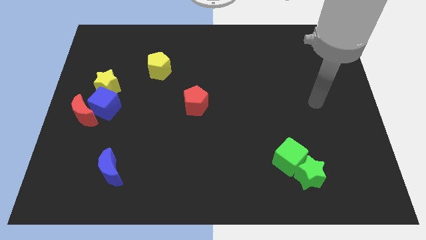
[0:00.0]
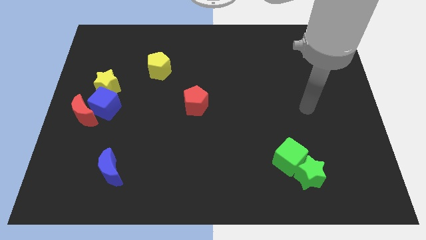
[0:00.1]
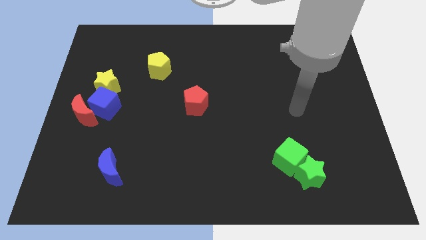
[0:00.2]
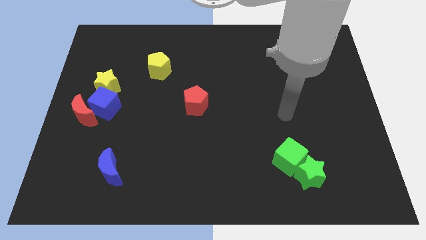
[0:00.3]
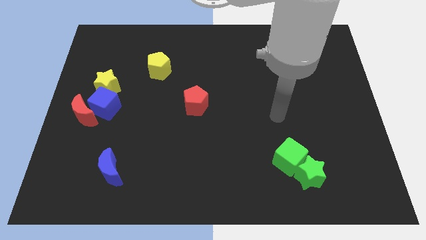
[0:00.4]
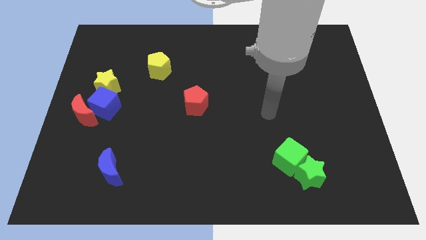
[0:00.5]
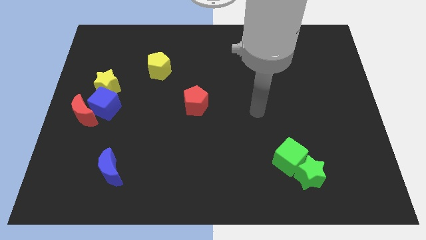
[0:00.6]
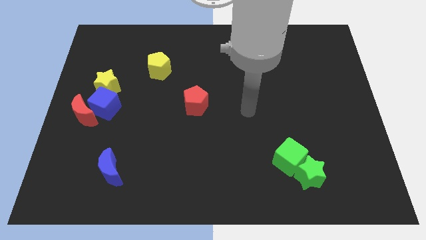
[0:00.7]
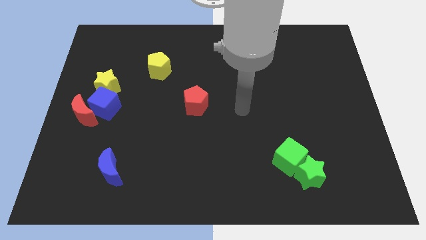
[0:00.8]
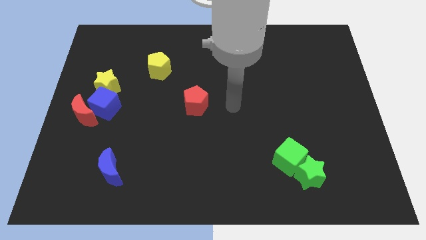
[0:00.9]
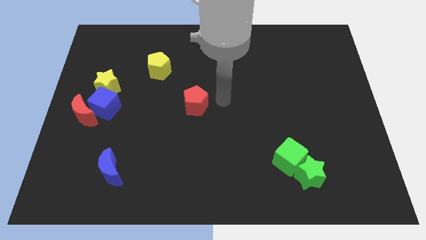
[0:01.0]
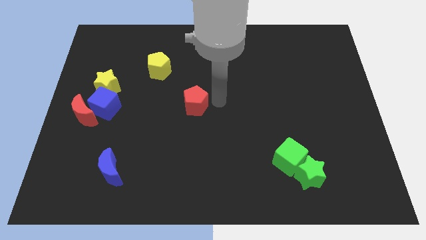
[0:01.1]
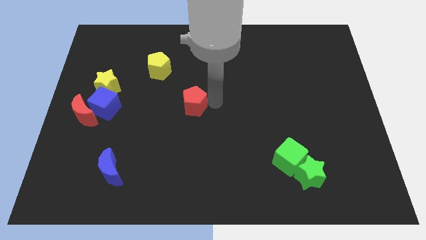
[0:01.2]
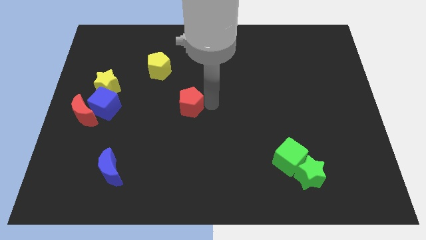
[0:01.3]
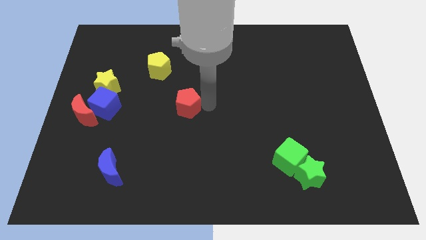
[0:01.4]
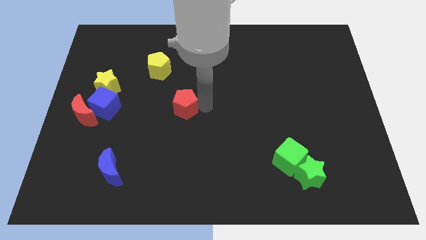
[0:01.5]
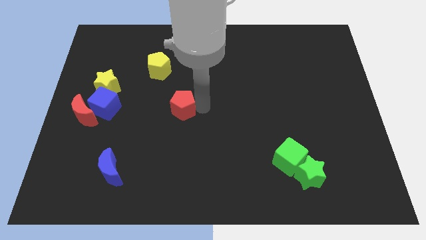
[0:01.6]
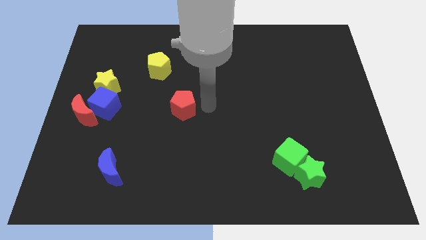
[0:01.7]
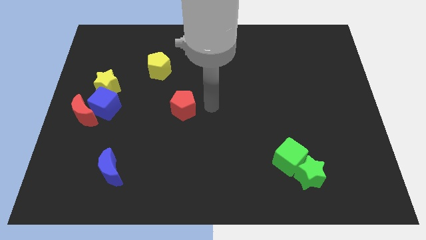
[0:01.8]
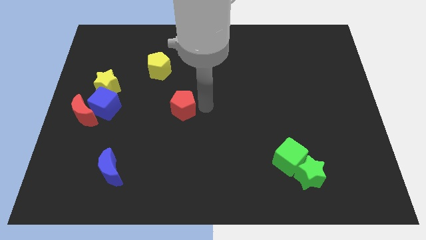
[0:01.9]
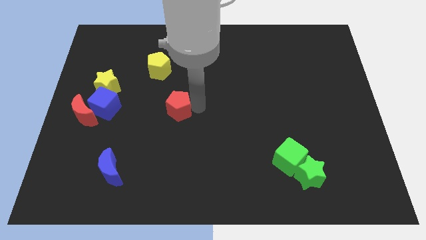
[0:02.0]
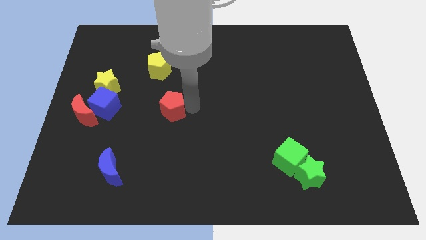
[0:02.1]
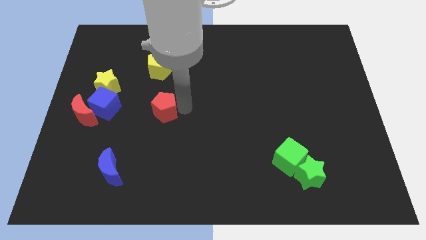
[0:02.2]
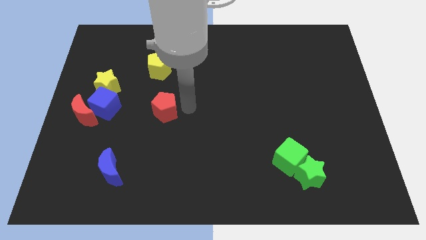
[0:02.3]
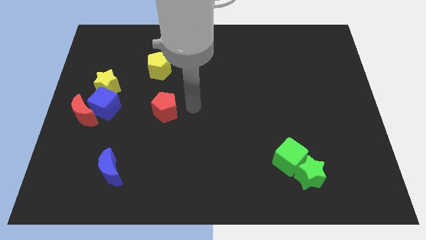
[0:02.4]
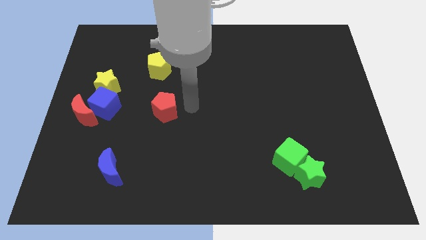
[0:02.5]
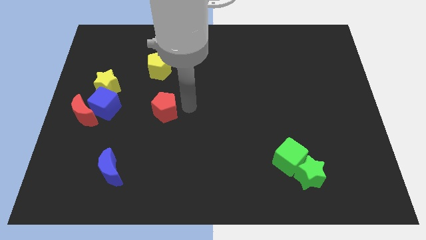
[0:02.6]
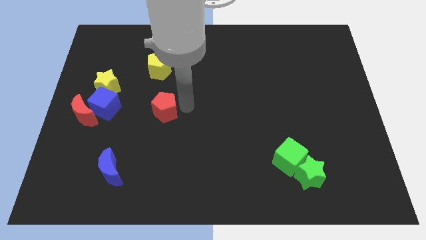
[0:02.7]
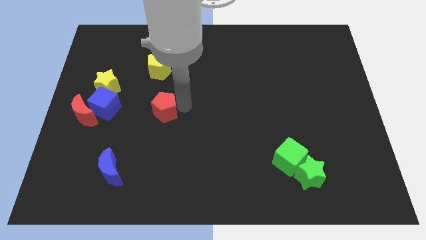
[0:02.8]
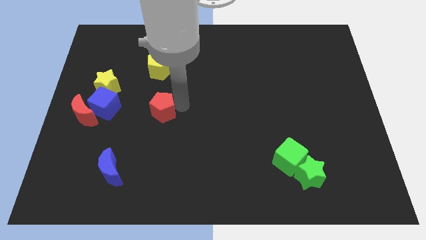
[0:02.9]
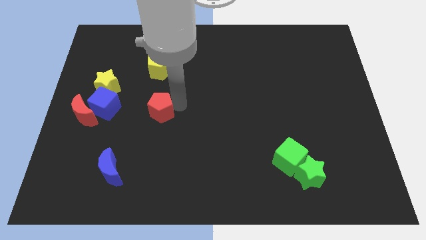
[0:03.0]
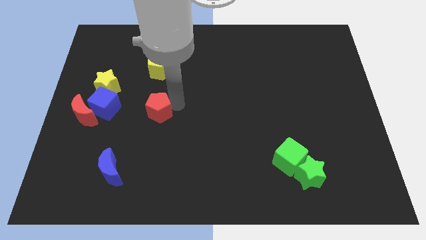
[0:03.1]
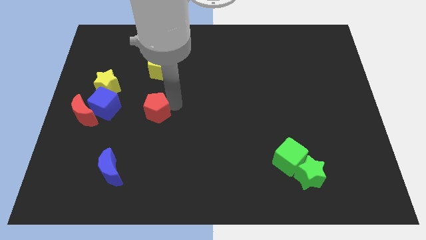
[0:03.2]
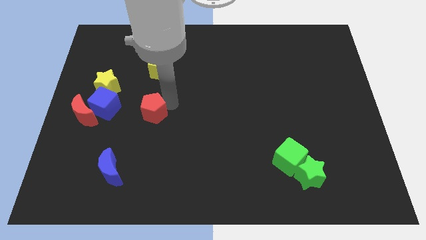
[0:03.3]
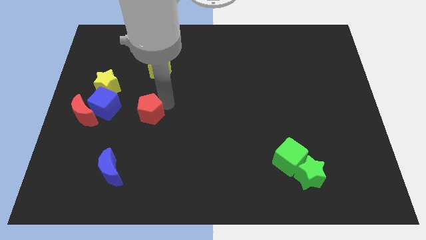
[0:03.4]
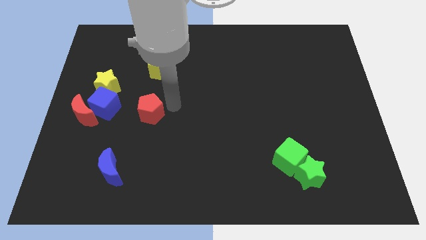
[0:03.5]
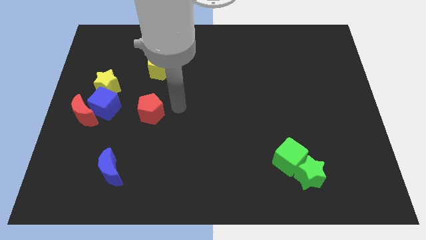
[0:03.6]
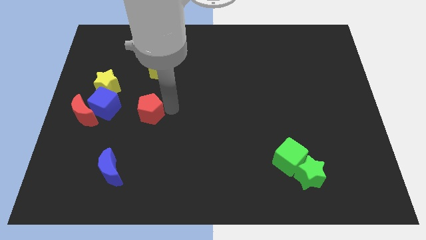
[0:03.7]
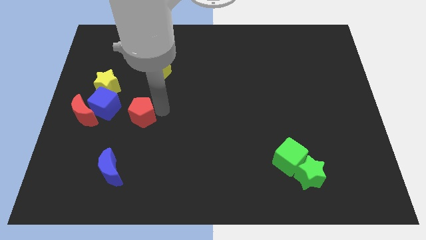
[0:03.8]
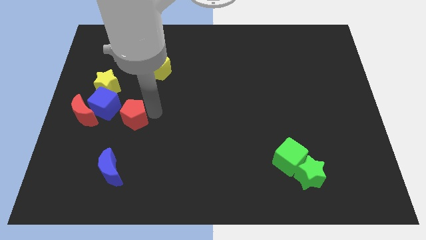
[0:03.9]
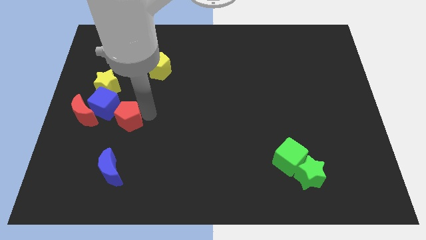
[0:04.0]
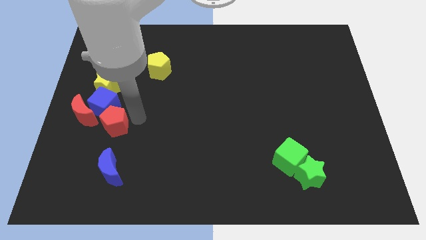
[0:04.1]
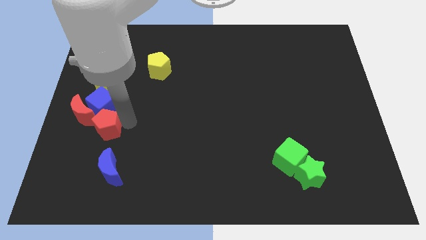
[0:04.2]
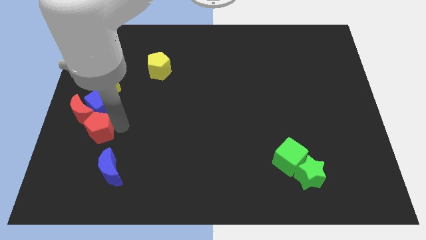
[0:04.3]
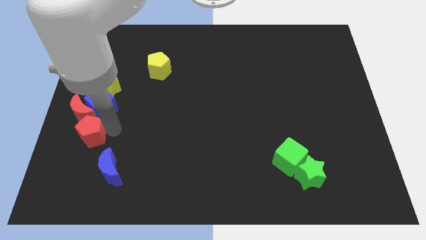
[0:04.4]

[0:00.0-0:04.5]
push the red pentagon close to the red moon

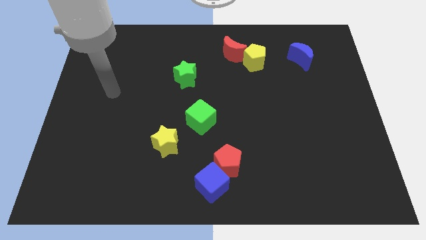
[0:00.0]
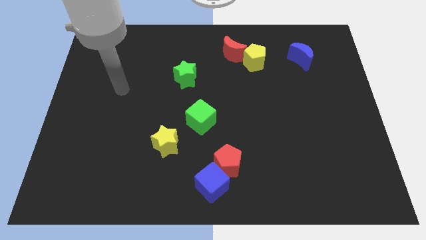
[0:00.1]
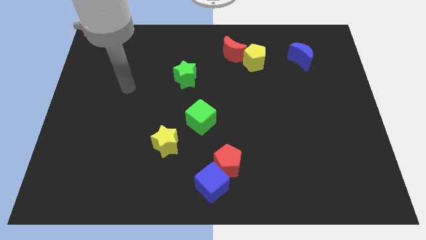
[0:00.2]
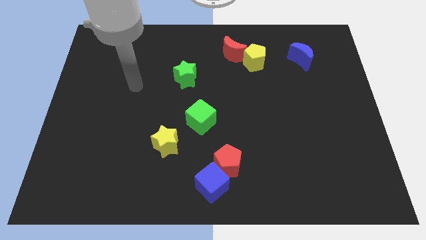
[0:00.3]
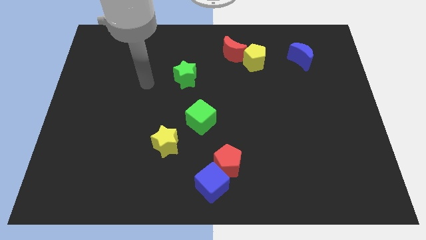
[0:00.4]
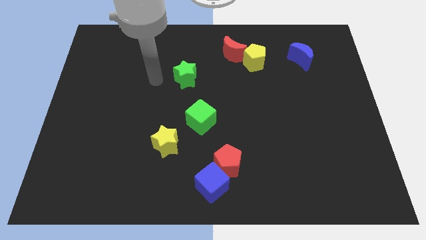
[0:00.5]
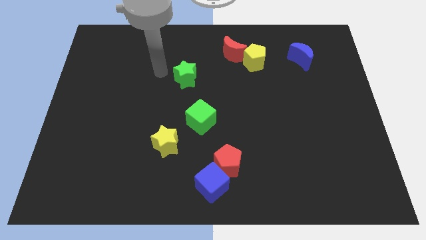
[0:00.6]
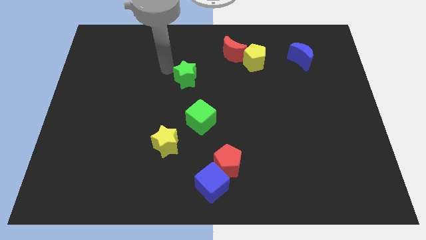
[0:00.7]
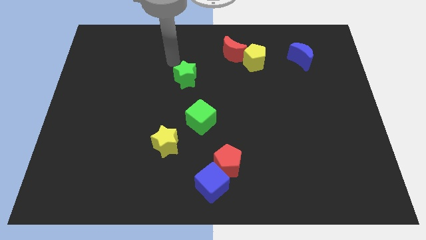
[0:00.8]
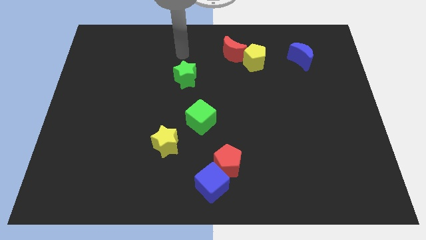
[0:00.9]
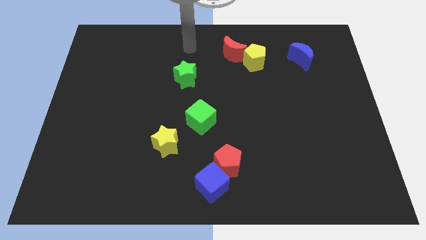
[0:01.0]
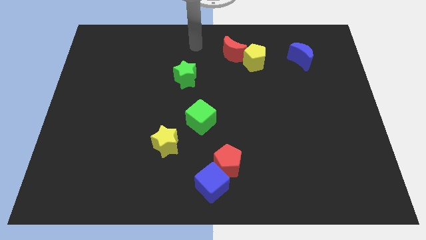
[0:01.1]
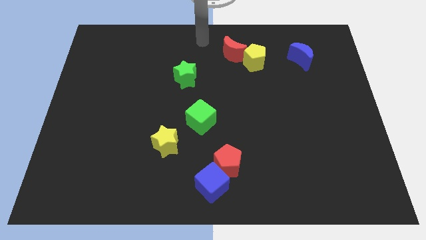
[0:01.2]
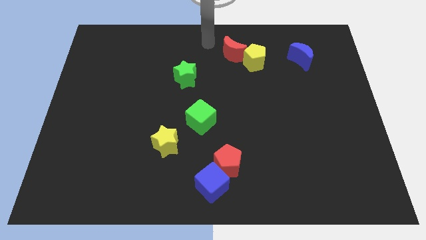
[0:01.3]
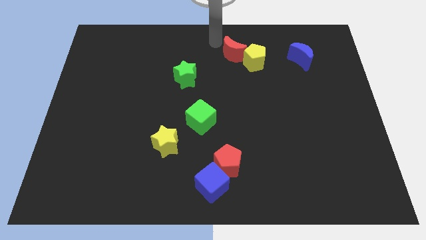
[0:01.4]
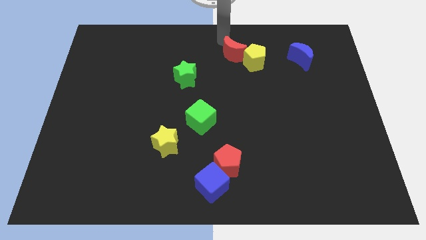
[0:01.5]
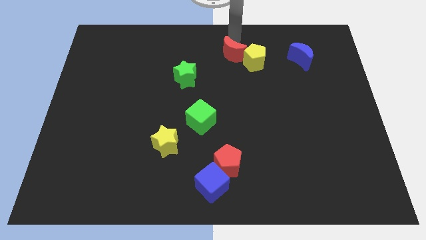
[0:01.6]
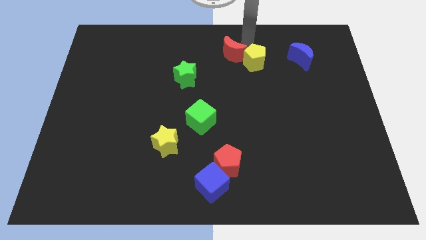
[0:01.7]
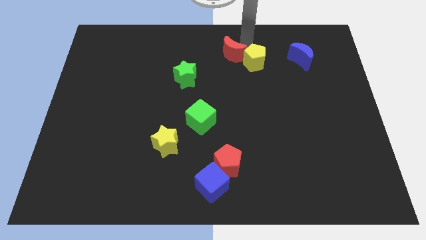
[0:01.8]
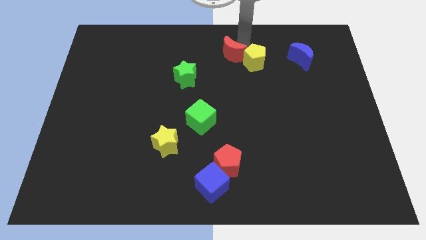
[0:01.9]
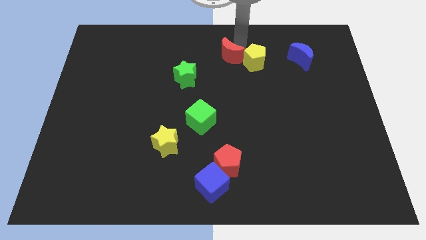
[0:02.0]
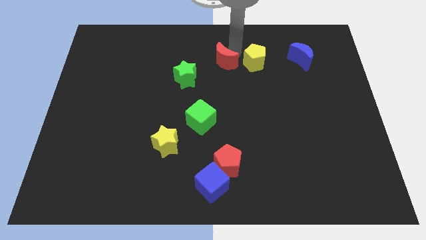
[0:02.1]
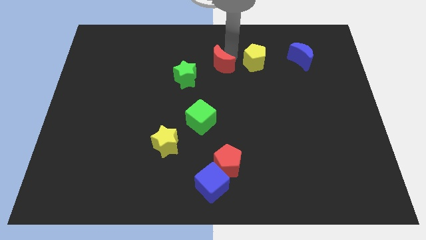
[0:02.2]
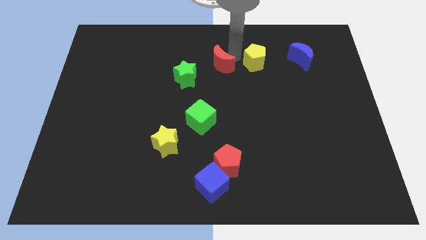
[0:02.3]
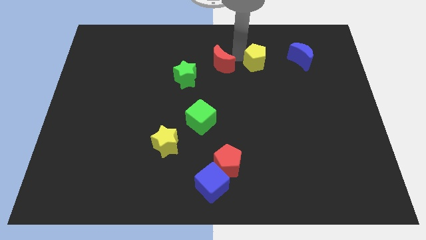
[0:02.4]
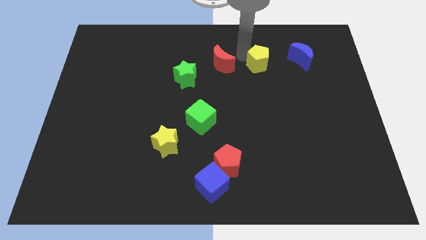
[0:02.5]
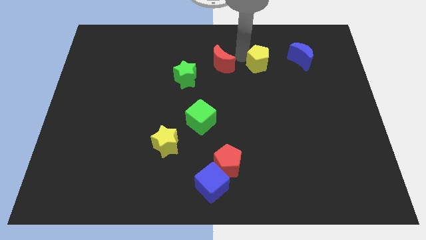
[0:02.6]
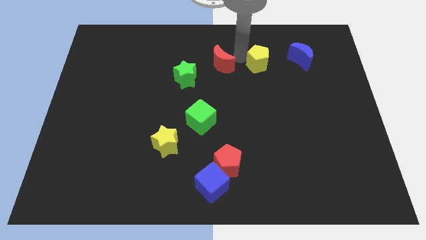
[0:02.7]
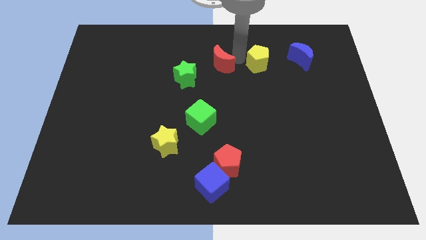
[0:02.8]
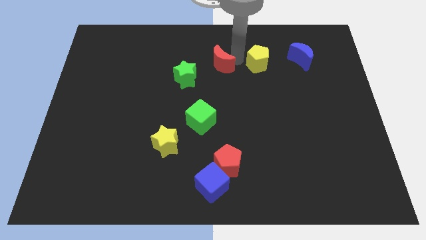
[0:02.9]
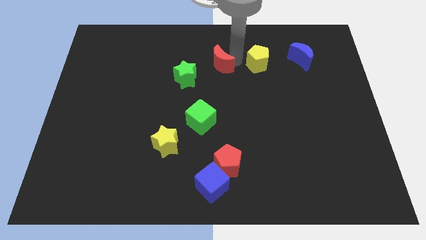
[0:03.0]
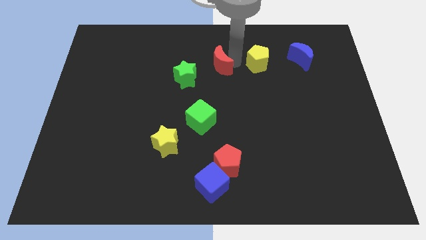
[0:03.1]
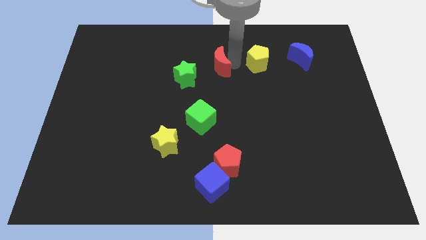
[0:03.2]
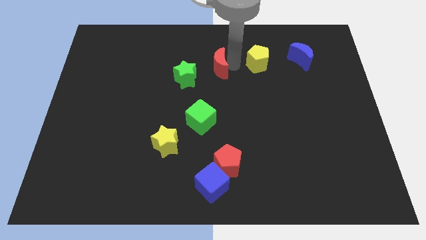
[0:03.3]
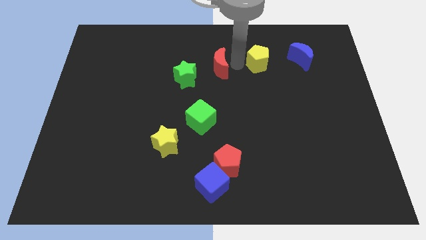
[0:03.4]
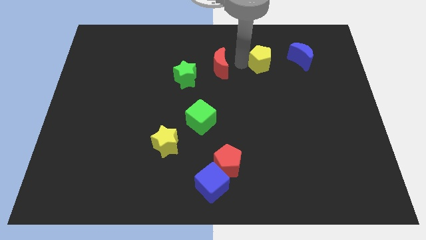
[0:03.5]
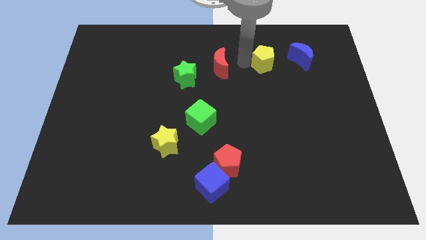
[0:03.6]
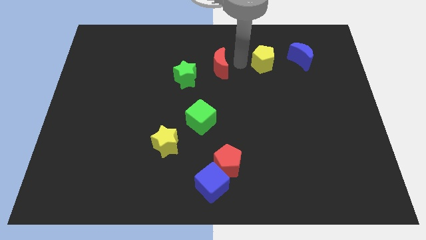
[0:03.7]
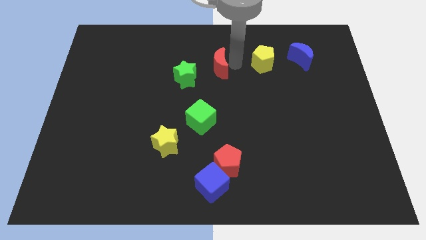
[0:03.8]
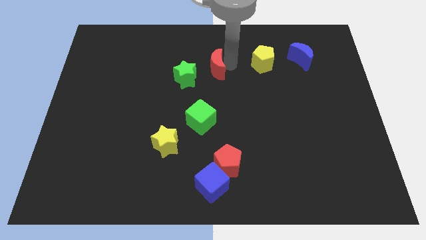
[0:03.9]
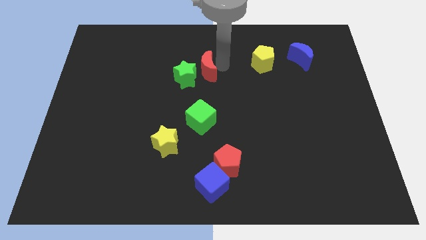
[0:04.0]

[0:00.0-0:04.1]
push the red moon close to the green star
